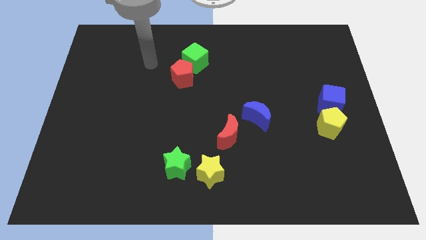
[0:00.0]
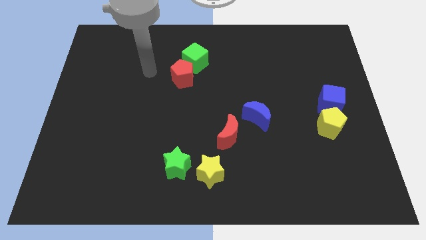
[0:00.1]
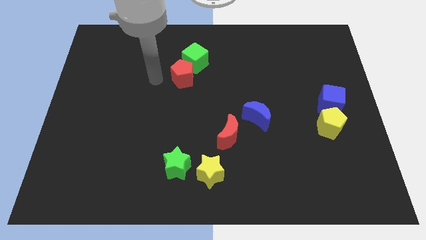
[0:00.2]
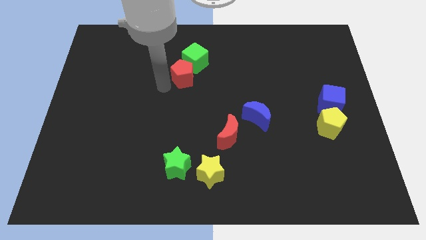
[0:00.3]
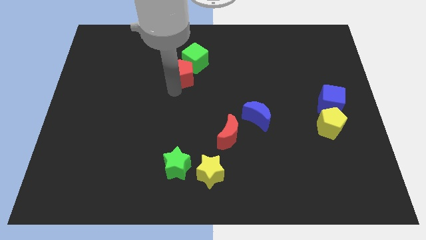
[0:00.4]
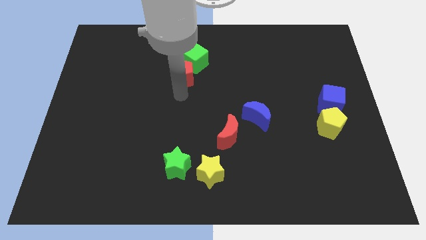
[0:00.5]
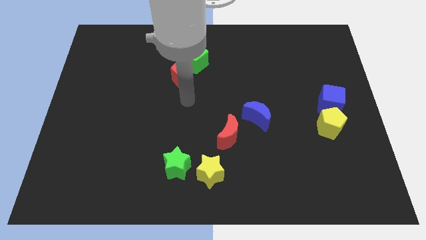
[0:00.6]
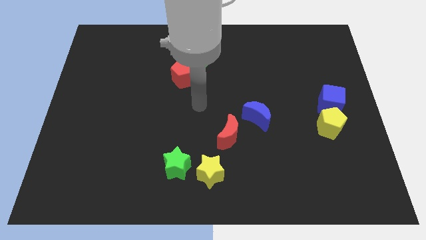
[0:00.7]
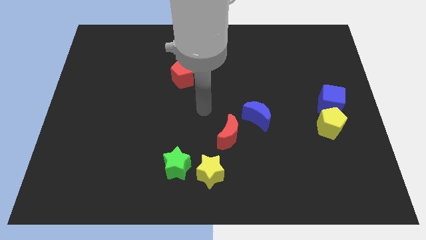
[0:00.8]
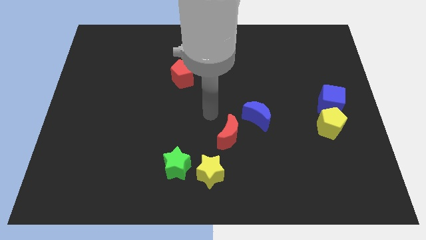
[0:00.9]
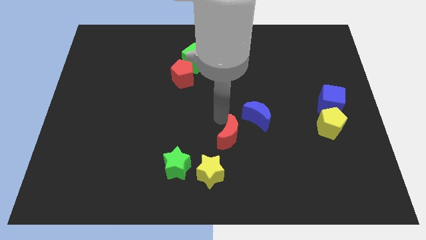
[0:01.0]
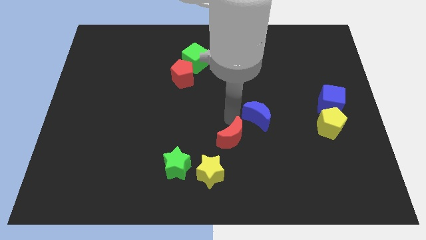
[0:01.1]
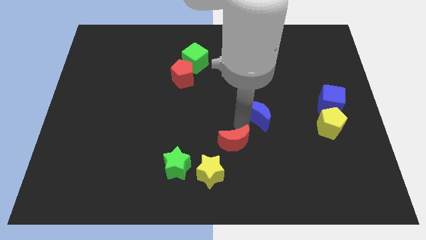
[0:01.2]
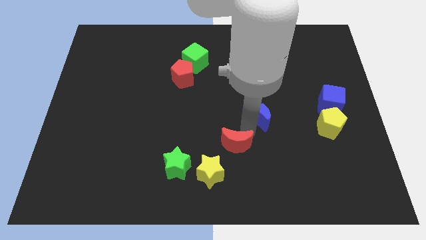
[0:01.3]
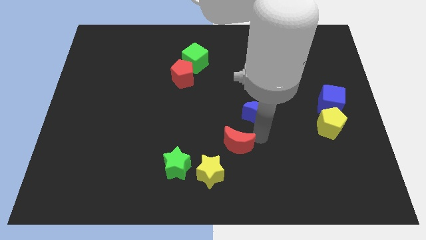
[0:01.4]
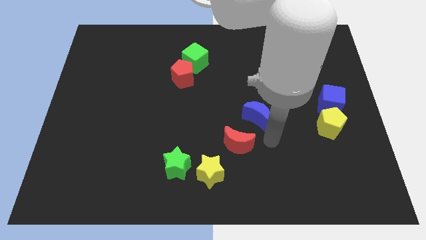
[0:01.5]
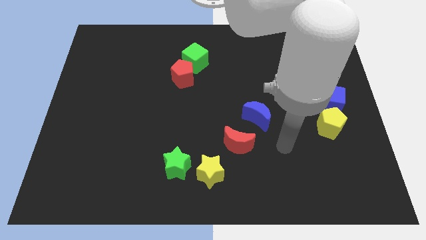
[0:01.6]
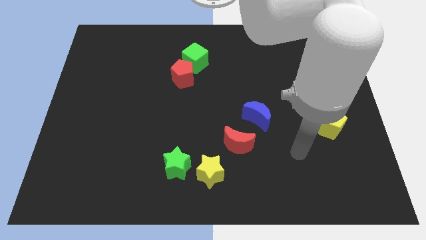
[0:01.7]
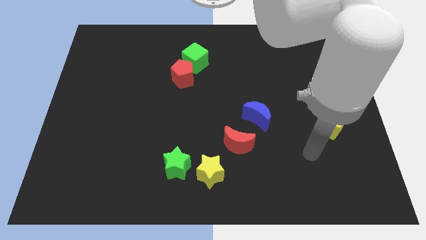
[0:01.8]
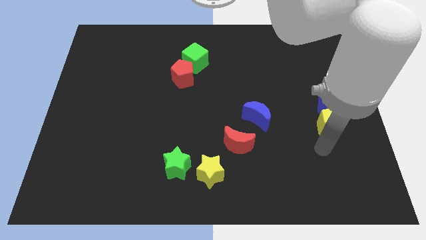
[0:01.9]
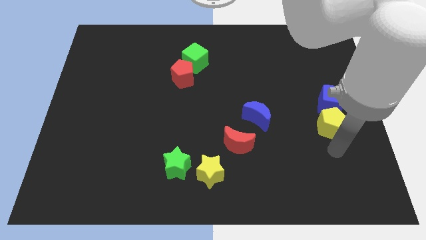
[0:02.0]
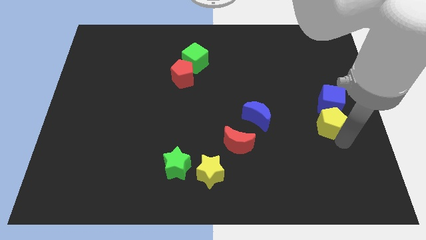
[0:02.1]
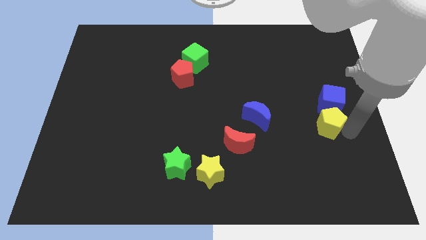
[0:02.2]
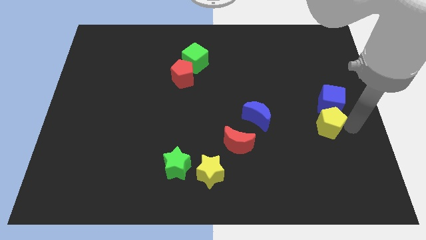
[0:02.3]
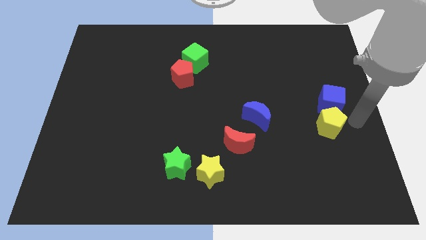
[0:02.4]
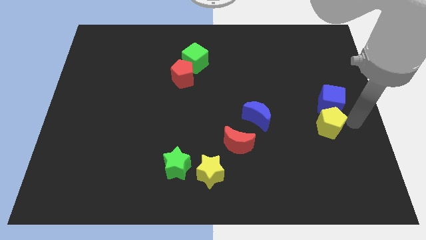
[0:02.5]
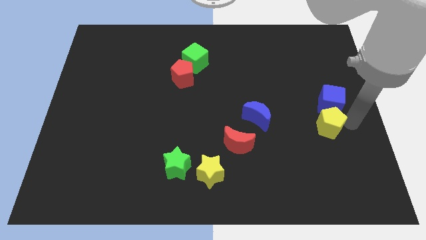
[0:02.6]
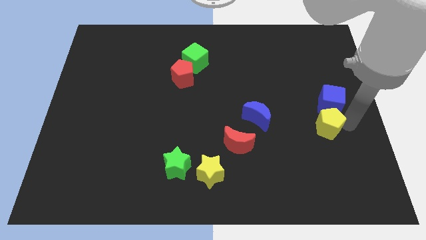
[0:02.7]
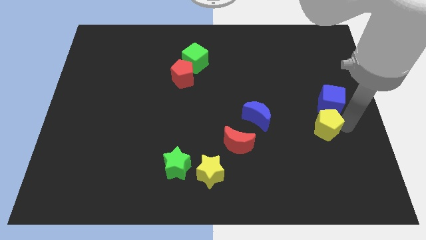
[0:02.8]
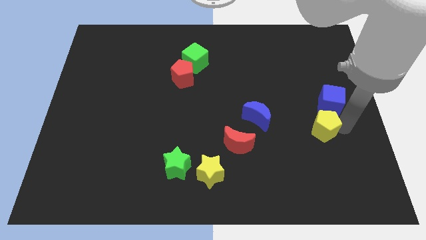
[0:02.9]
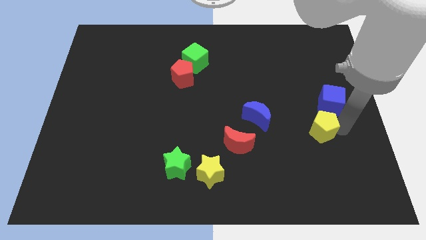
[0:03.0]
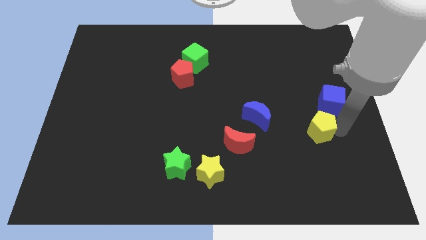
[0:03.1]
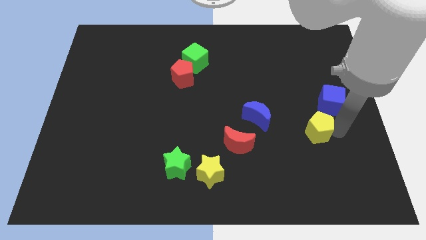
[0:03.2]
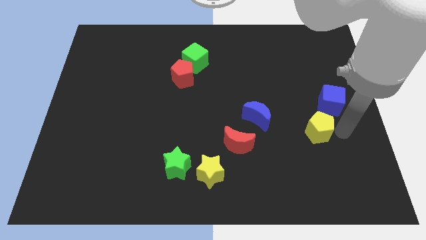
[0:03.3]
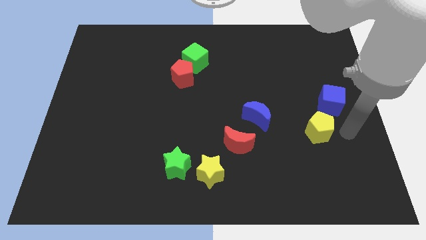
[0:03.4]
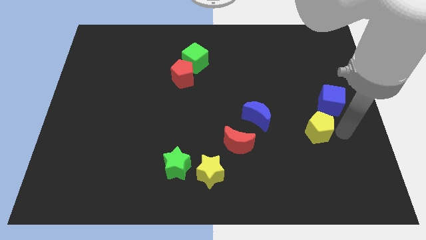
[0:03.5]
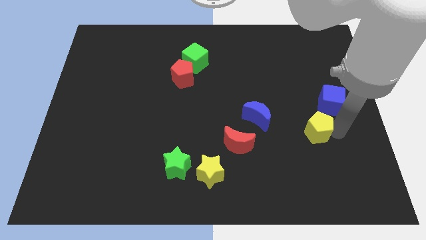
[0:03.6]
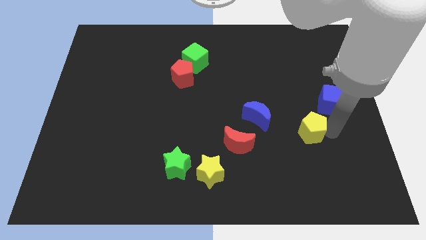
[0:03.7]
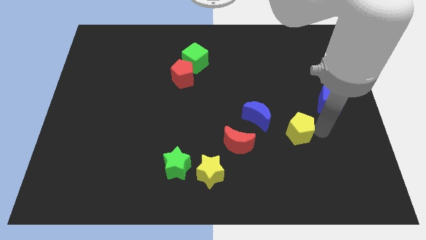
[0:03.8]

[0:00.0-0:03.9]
move the yellow pentagon slightly to the left

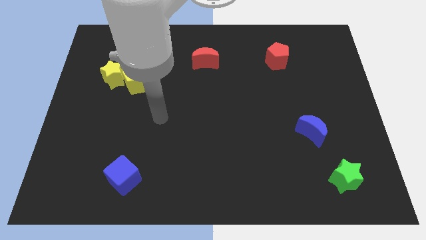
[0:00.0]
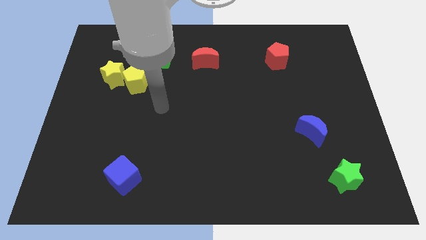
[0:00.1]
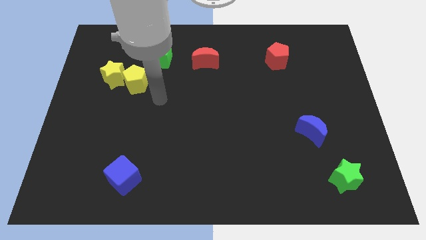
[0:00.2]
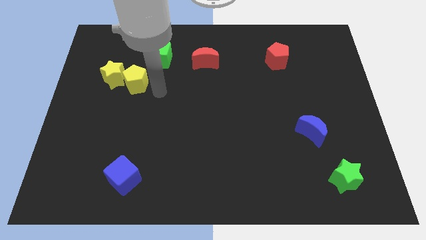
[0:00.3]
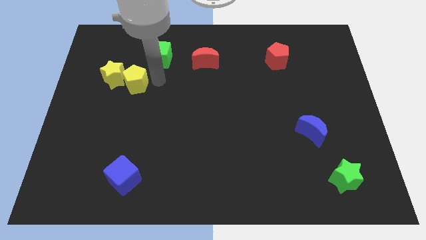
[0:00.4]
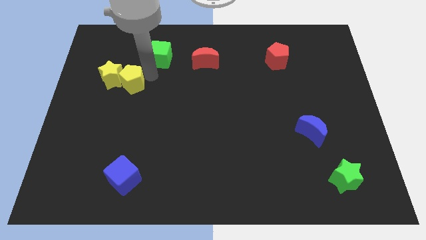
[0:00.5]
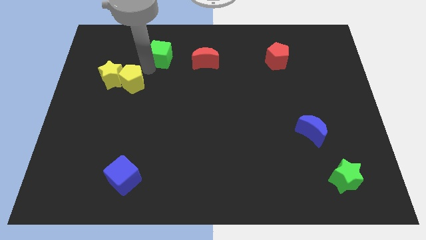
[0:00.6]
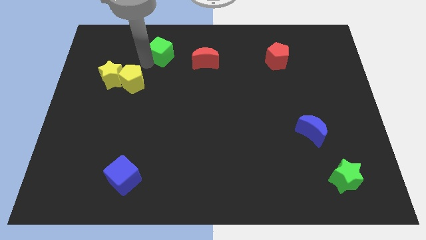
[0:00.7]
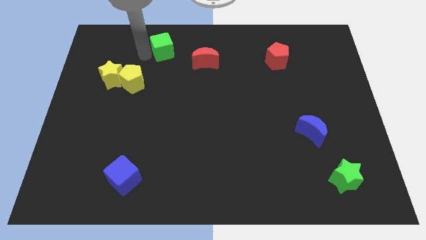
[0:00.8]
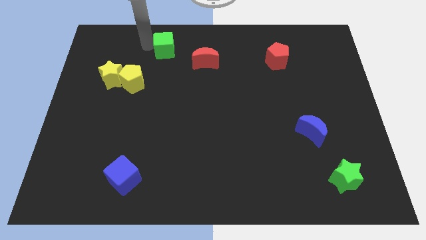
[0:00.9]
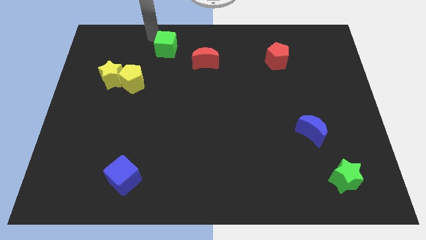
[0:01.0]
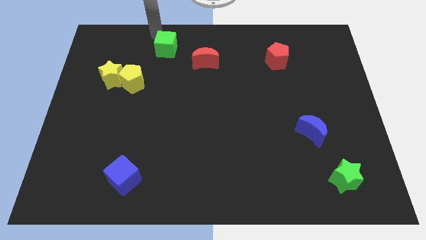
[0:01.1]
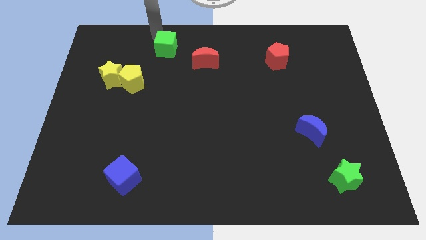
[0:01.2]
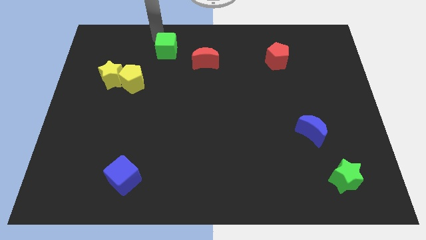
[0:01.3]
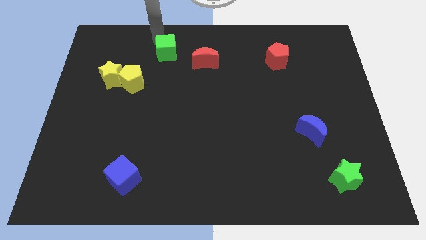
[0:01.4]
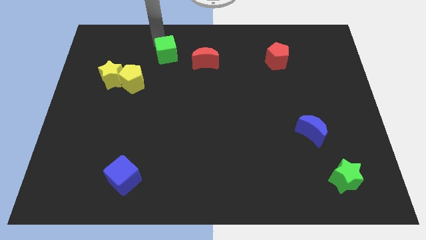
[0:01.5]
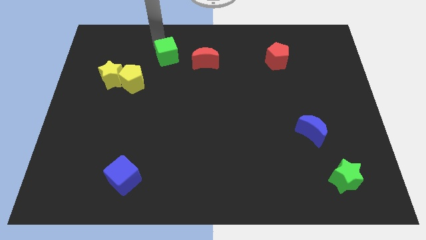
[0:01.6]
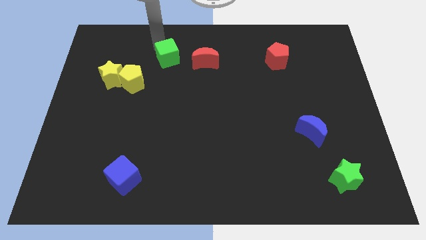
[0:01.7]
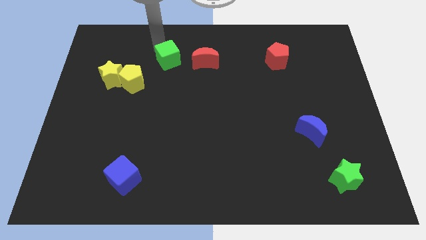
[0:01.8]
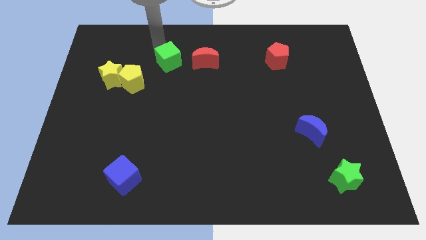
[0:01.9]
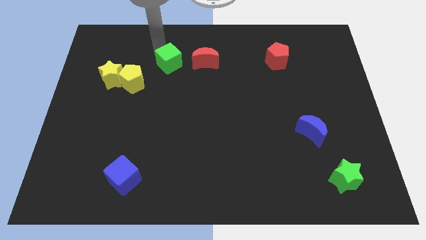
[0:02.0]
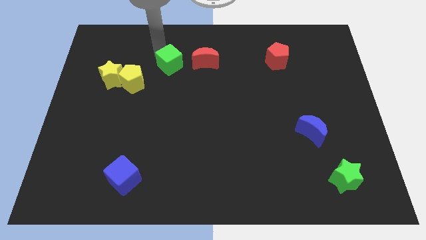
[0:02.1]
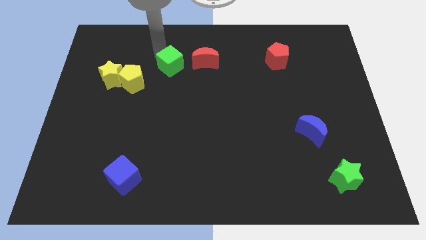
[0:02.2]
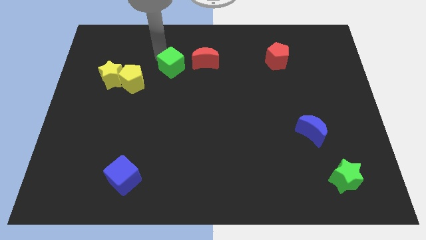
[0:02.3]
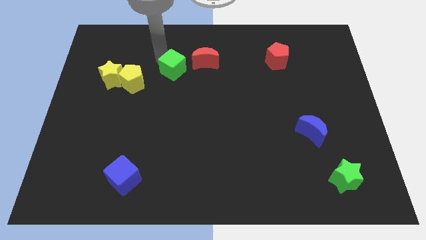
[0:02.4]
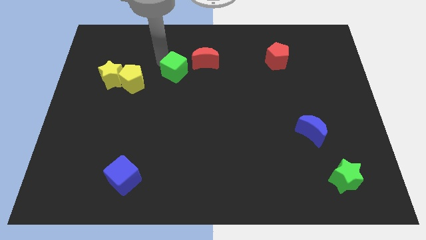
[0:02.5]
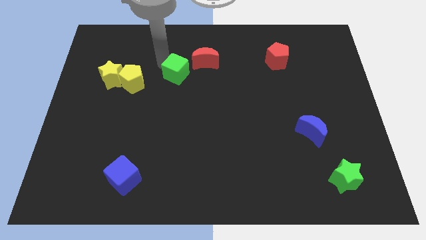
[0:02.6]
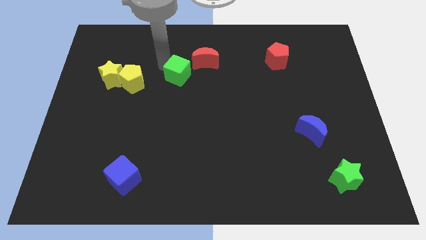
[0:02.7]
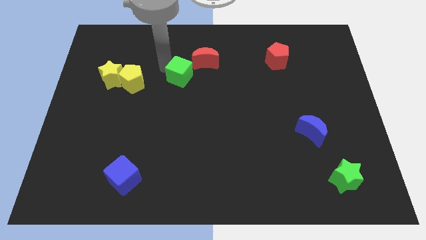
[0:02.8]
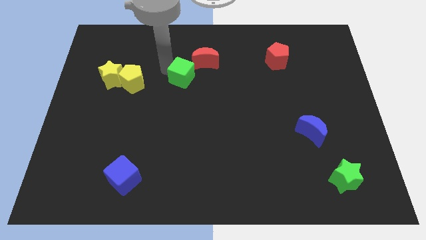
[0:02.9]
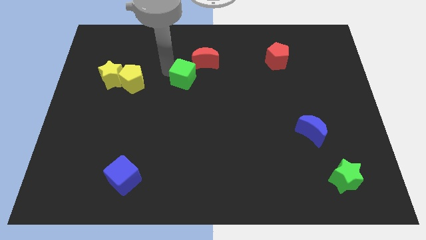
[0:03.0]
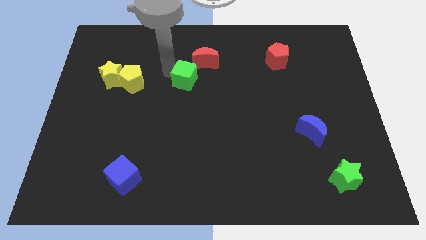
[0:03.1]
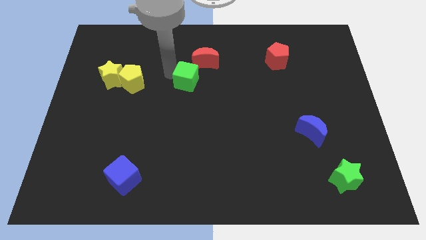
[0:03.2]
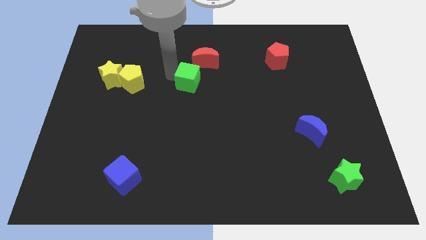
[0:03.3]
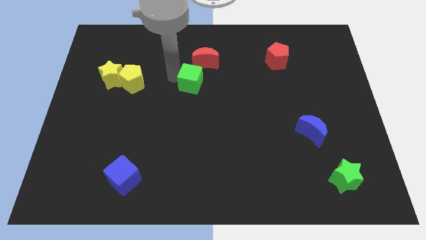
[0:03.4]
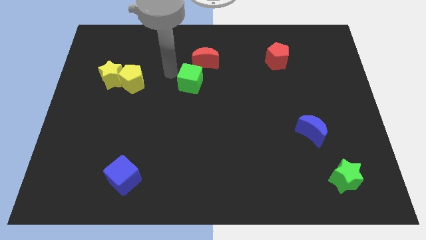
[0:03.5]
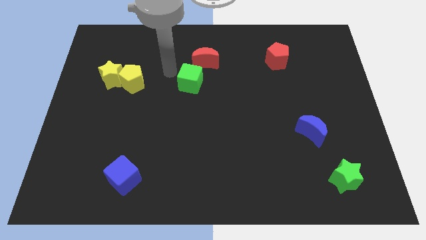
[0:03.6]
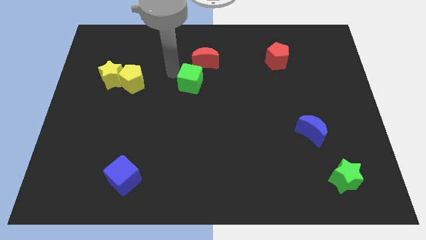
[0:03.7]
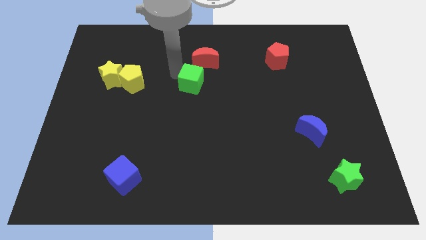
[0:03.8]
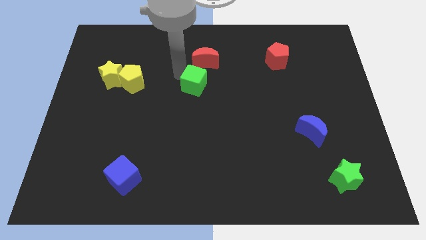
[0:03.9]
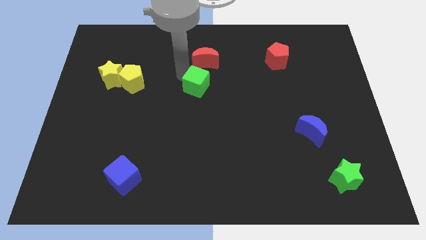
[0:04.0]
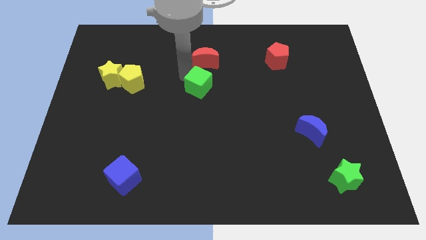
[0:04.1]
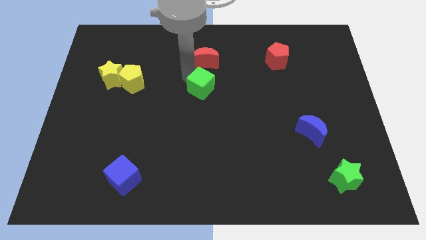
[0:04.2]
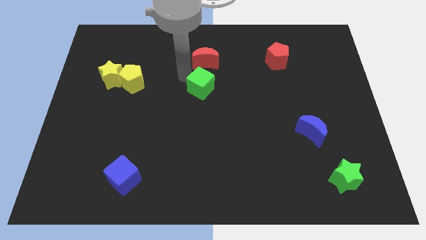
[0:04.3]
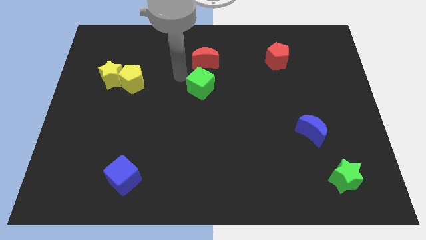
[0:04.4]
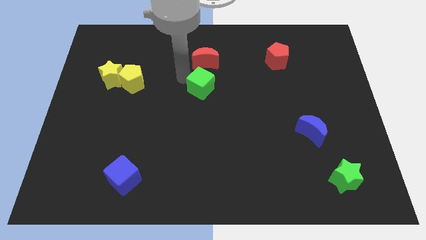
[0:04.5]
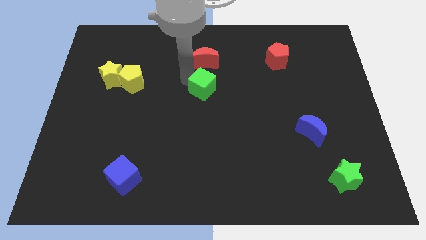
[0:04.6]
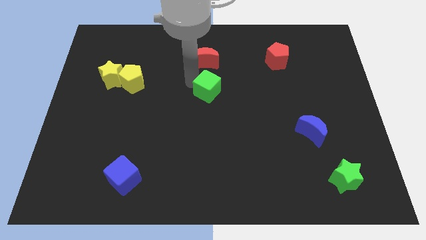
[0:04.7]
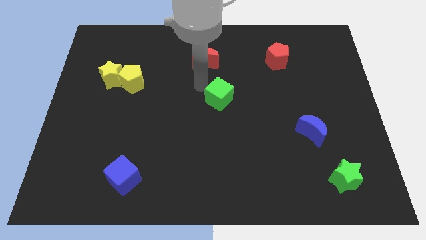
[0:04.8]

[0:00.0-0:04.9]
move the green cube downwards and right diagonally
